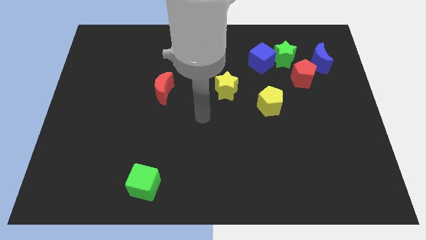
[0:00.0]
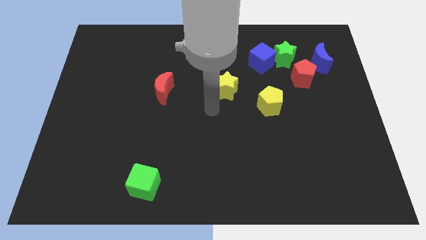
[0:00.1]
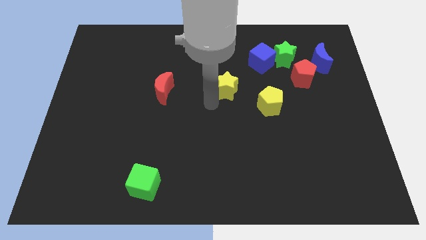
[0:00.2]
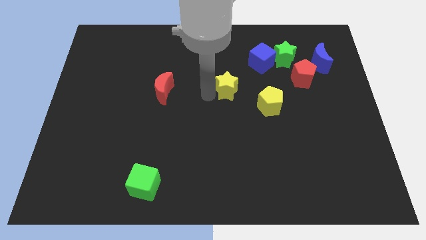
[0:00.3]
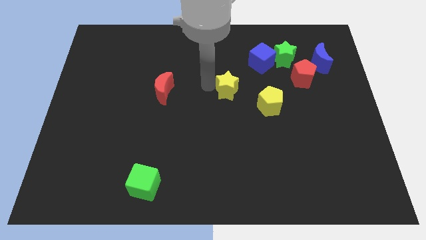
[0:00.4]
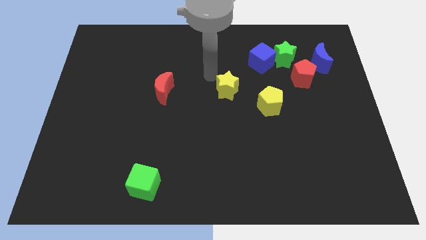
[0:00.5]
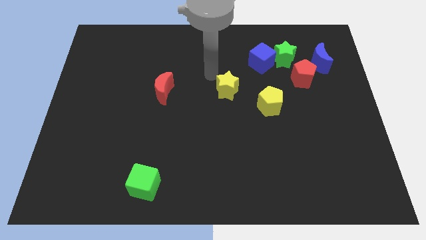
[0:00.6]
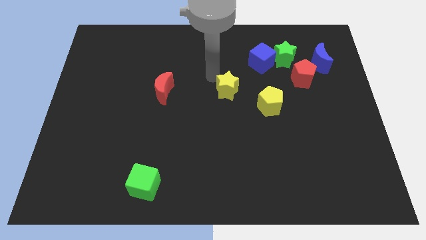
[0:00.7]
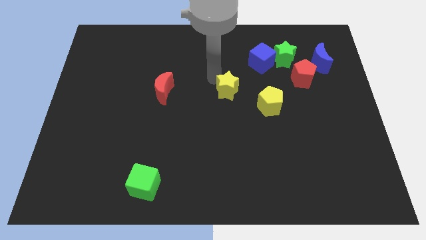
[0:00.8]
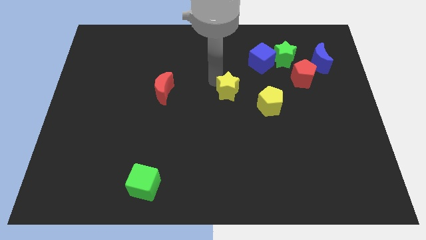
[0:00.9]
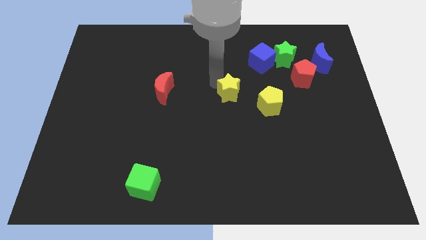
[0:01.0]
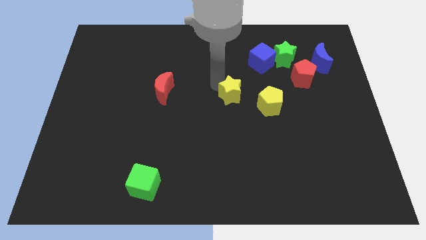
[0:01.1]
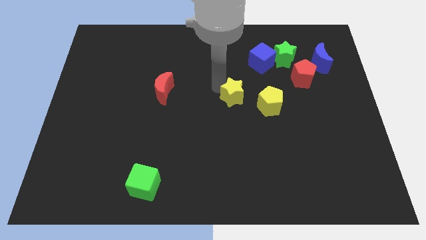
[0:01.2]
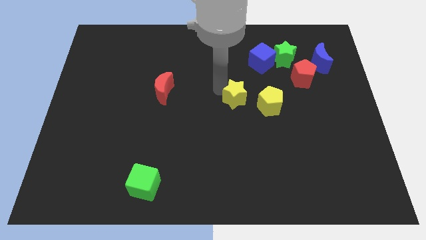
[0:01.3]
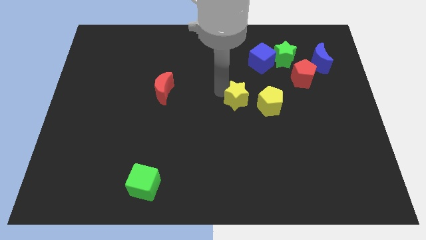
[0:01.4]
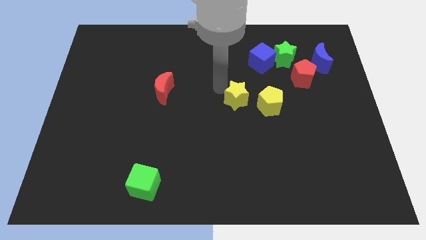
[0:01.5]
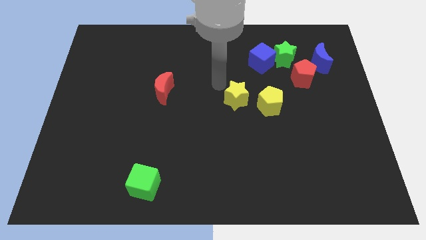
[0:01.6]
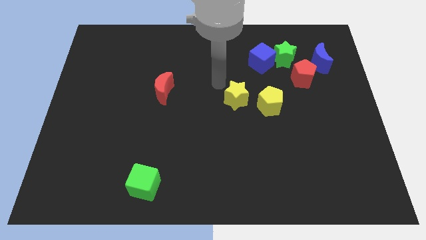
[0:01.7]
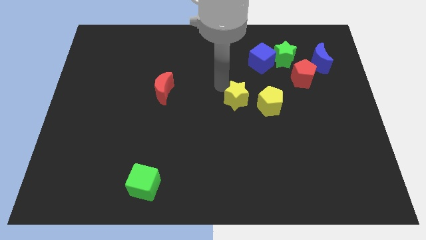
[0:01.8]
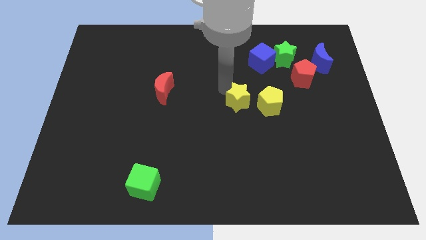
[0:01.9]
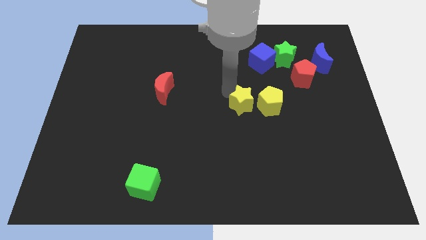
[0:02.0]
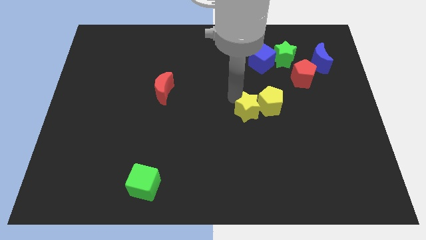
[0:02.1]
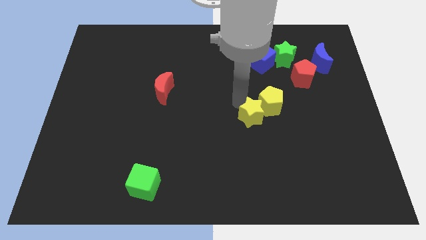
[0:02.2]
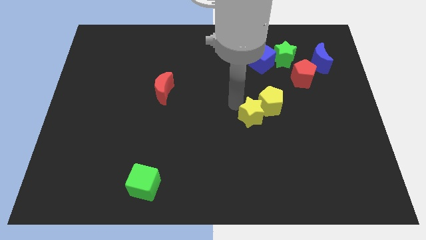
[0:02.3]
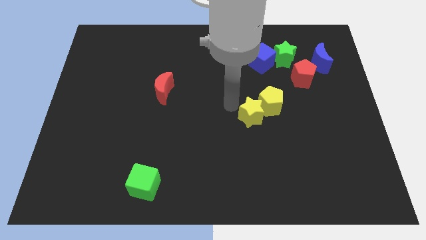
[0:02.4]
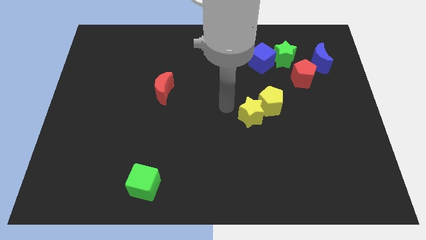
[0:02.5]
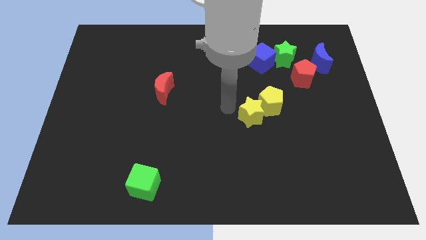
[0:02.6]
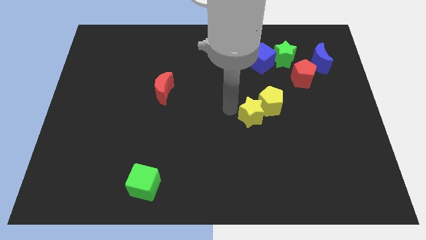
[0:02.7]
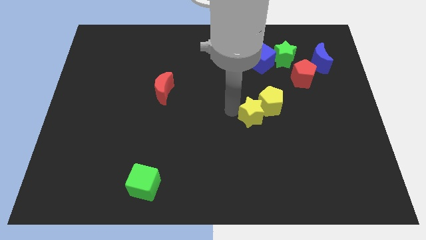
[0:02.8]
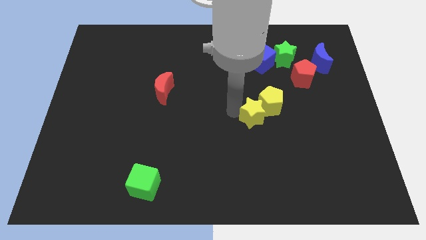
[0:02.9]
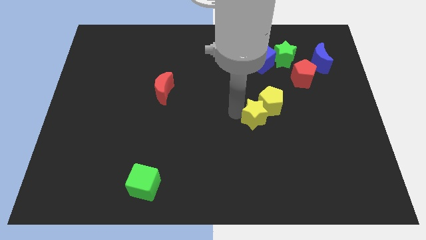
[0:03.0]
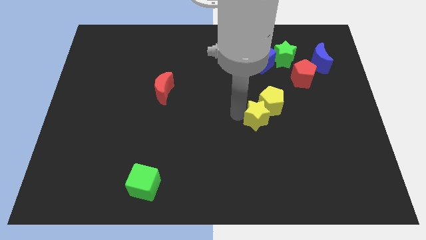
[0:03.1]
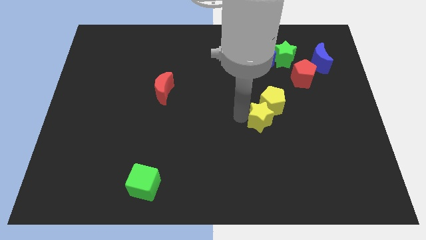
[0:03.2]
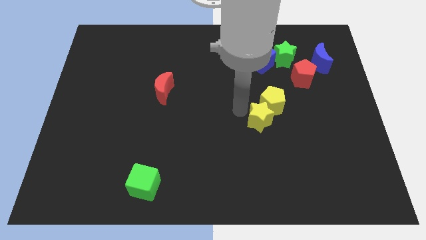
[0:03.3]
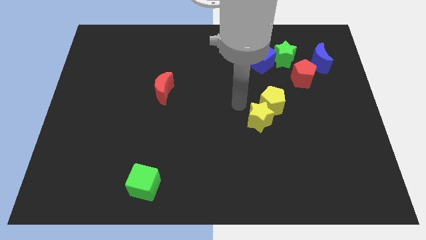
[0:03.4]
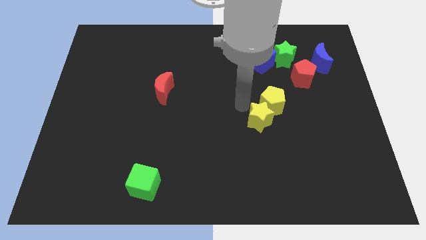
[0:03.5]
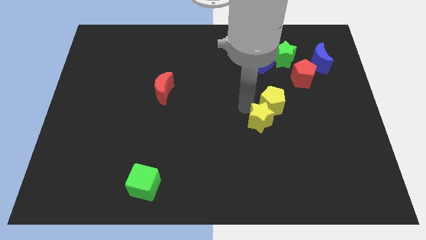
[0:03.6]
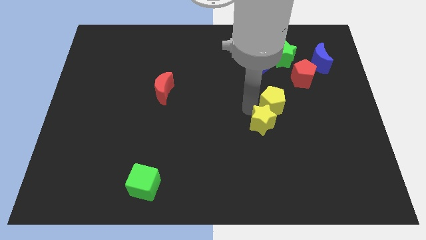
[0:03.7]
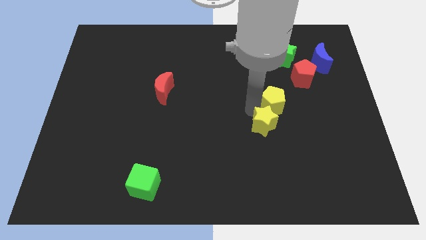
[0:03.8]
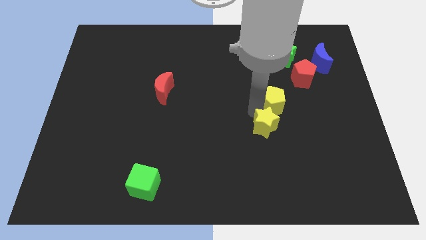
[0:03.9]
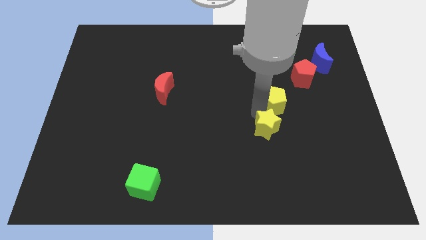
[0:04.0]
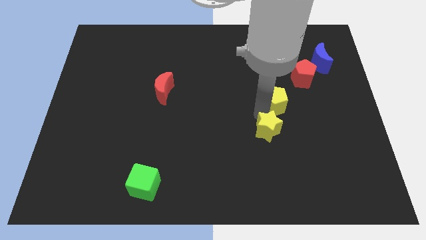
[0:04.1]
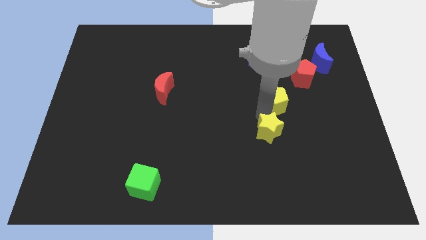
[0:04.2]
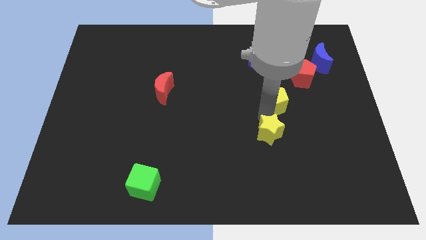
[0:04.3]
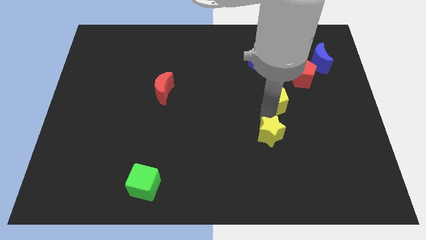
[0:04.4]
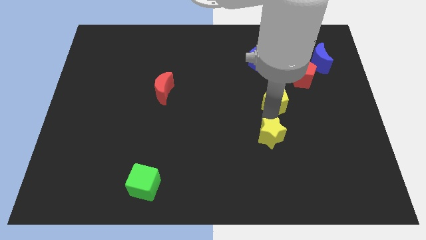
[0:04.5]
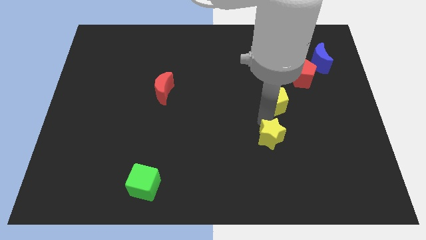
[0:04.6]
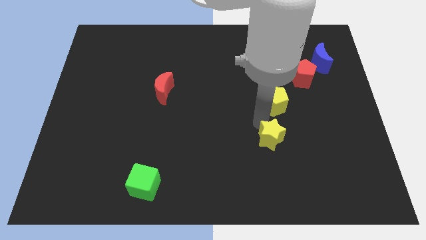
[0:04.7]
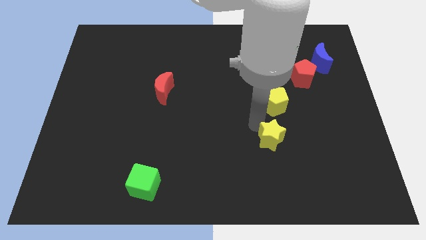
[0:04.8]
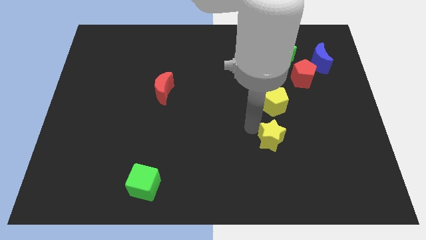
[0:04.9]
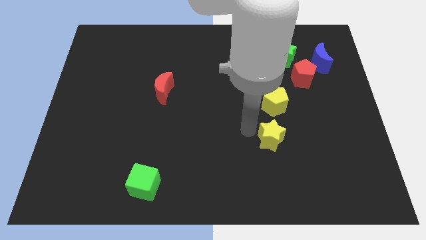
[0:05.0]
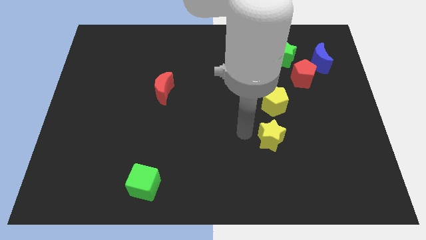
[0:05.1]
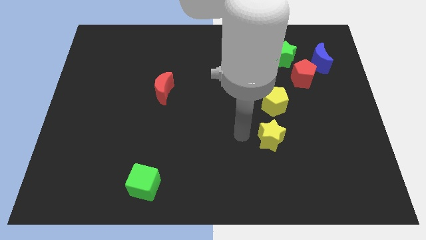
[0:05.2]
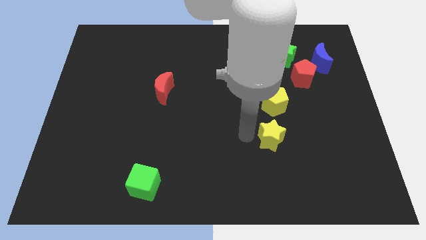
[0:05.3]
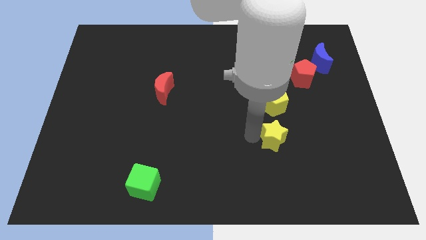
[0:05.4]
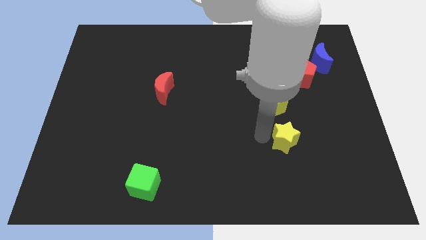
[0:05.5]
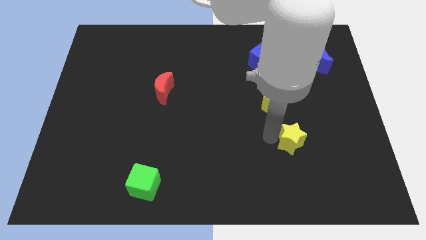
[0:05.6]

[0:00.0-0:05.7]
push the yellow star down and to the right diagonally

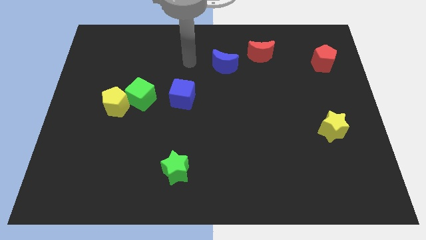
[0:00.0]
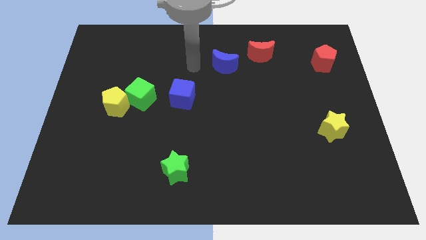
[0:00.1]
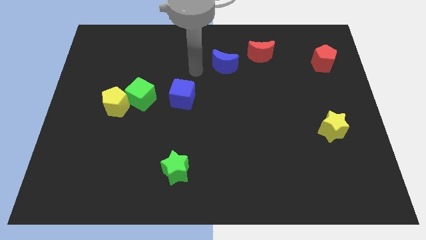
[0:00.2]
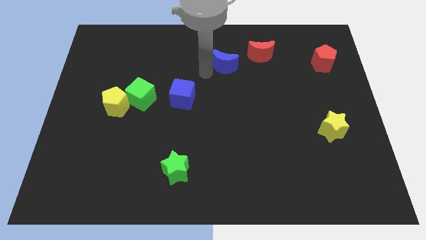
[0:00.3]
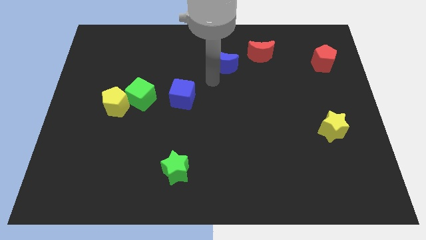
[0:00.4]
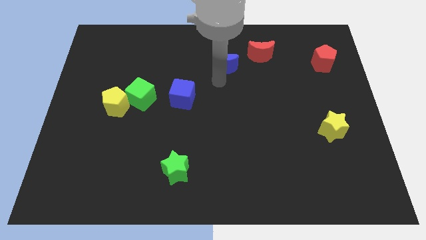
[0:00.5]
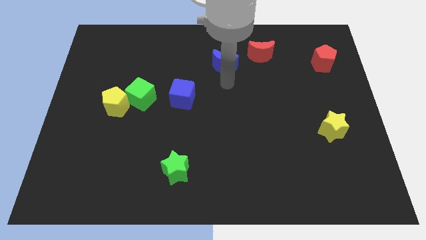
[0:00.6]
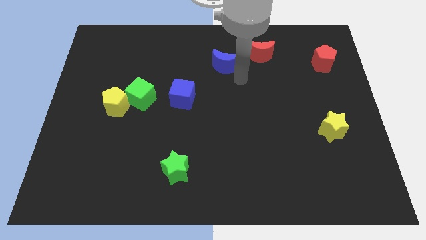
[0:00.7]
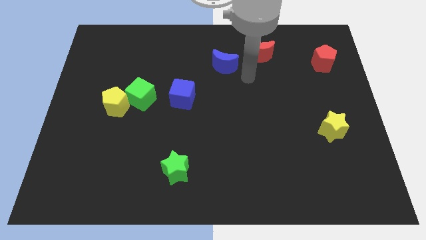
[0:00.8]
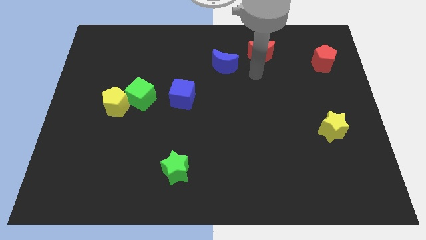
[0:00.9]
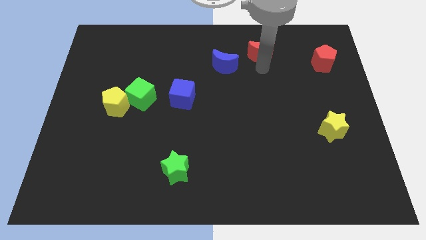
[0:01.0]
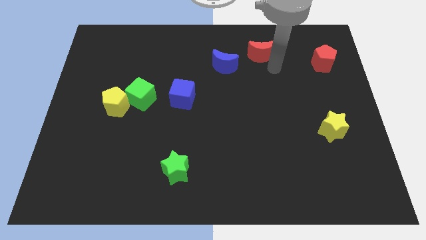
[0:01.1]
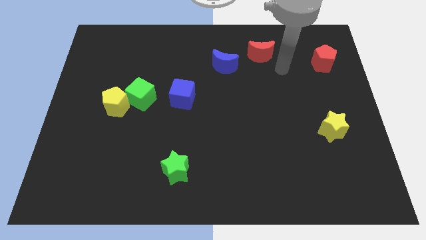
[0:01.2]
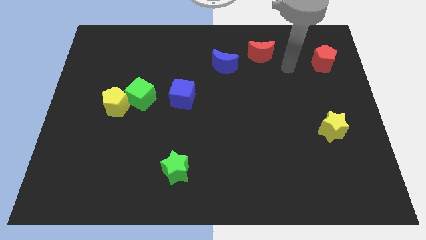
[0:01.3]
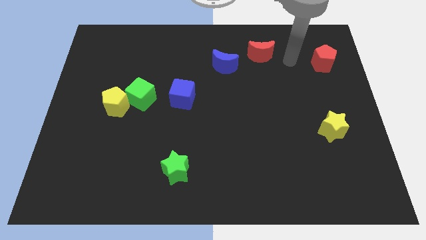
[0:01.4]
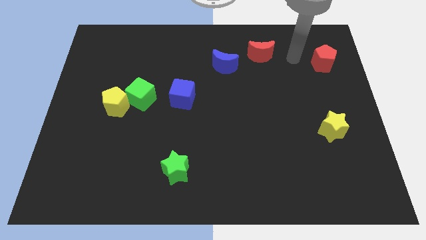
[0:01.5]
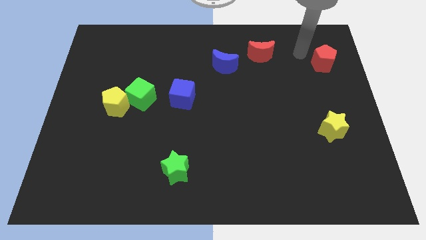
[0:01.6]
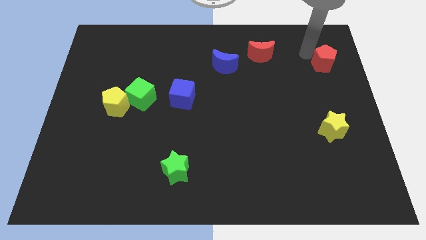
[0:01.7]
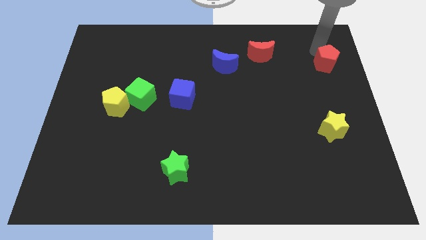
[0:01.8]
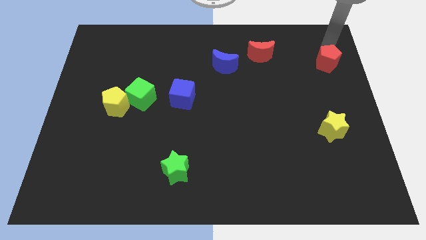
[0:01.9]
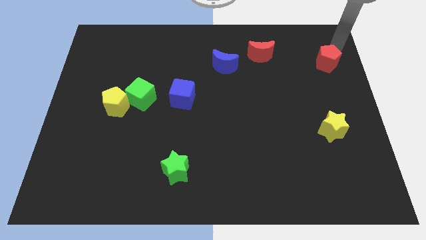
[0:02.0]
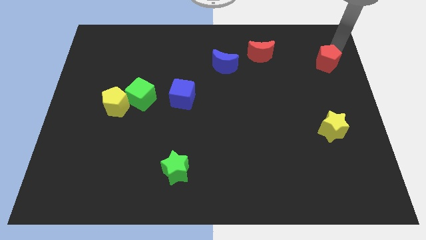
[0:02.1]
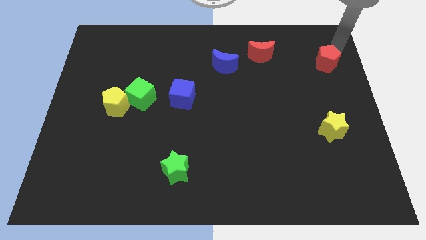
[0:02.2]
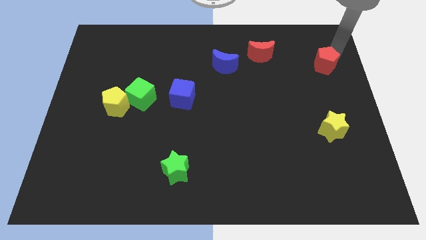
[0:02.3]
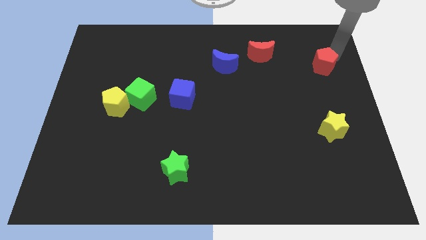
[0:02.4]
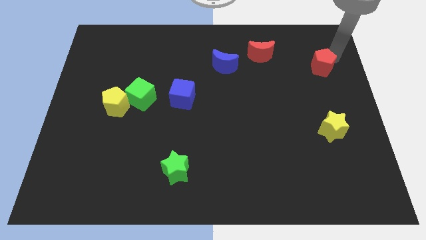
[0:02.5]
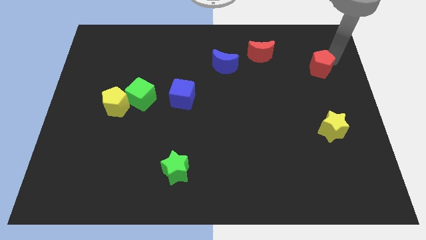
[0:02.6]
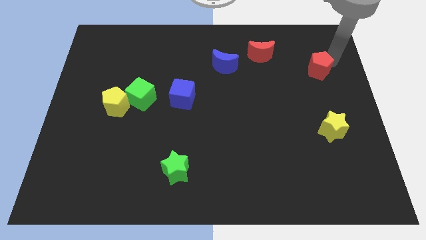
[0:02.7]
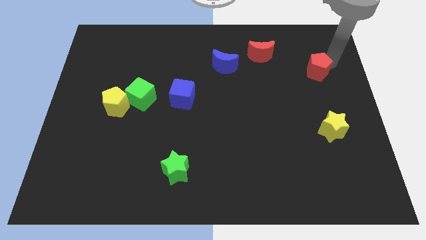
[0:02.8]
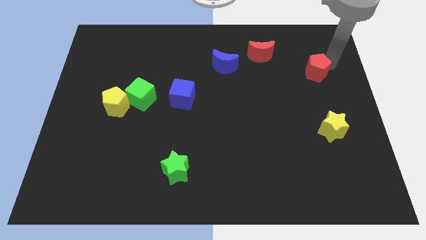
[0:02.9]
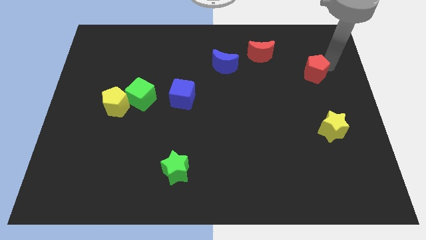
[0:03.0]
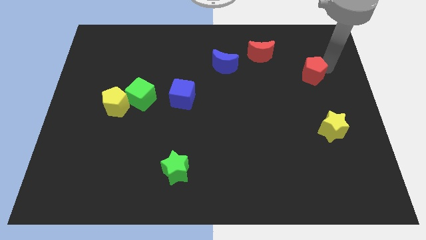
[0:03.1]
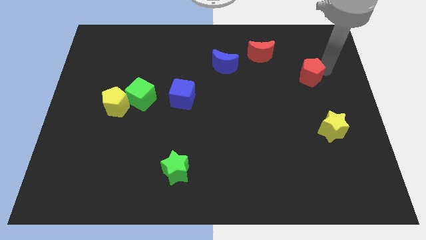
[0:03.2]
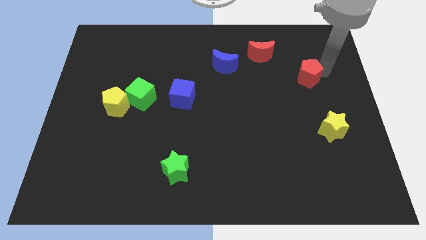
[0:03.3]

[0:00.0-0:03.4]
slide the red pentagon downwards and left diagonally slightly
